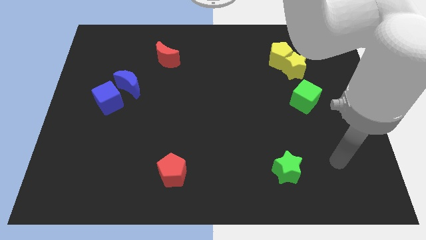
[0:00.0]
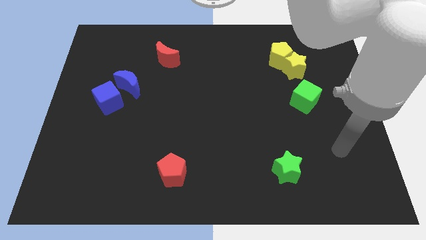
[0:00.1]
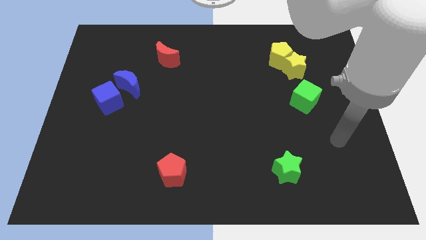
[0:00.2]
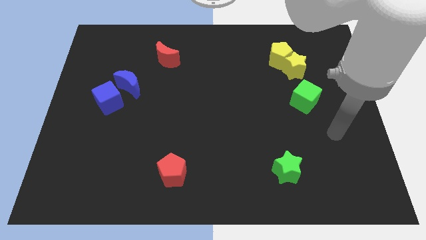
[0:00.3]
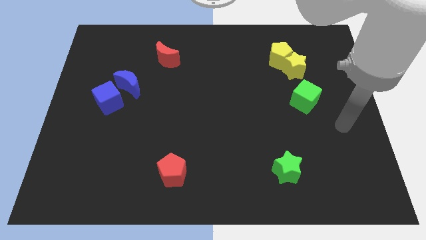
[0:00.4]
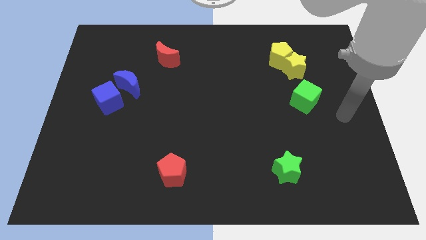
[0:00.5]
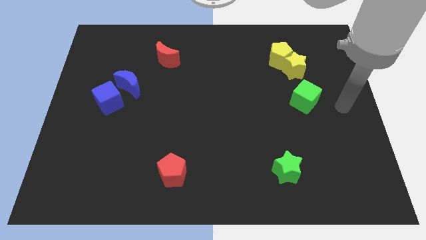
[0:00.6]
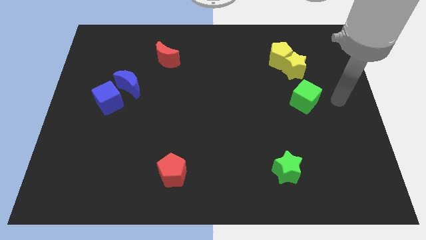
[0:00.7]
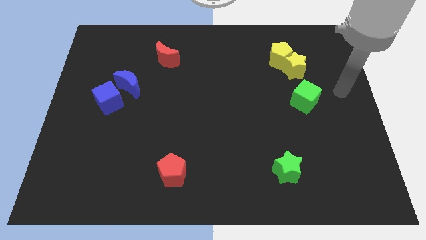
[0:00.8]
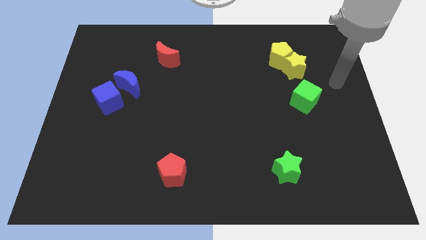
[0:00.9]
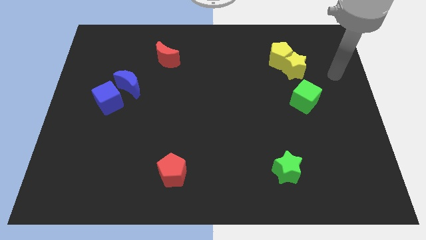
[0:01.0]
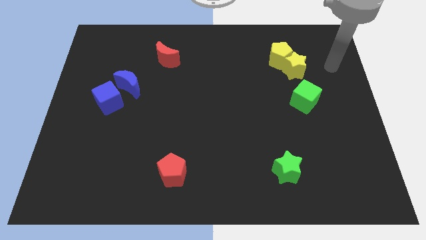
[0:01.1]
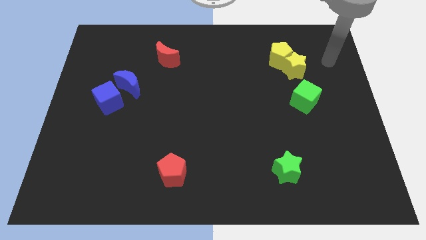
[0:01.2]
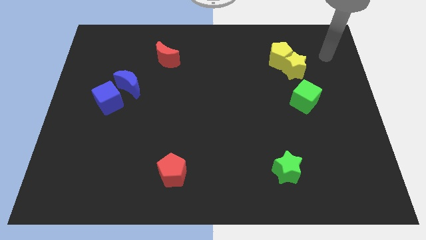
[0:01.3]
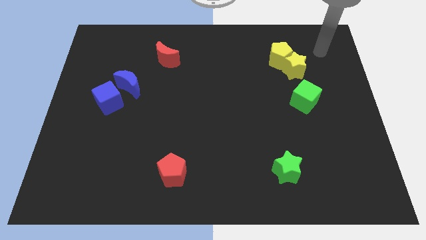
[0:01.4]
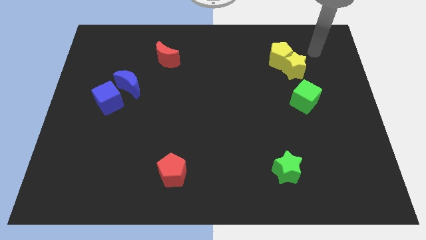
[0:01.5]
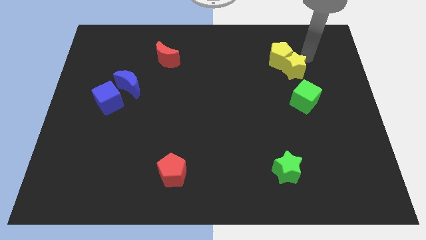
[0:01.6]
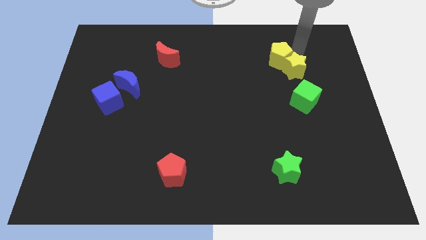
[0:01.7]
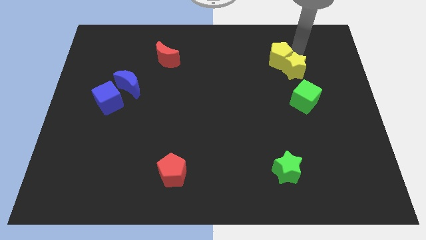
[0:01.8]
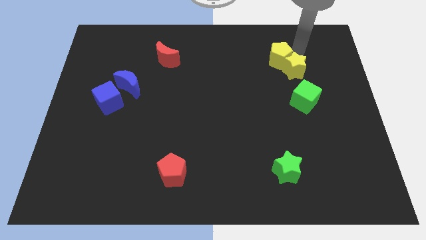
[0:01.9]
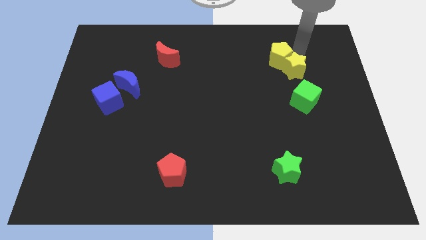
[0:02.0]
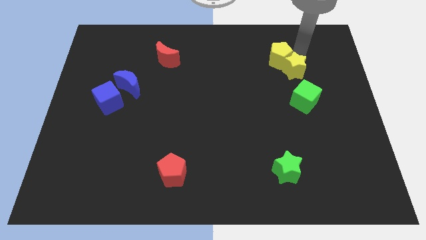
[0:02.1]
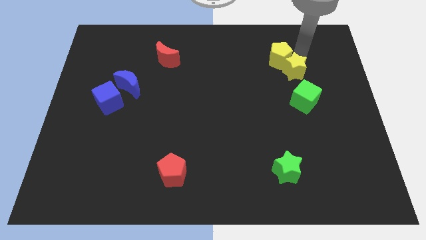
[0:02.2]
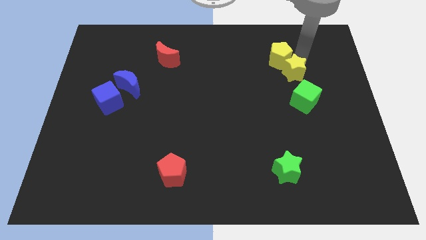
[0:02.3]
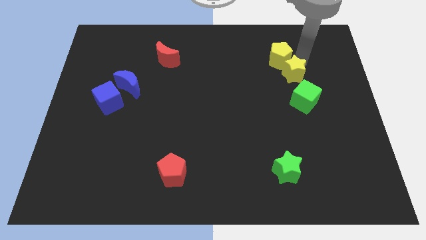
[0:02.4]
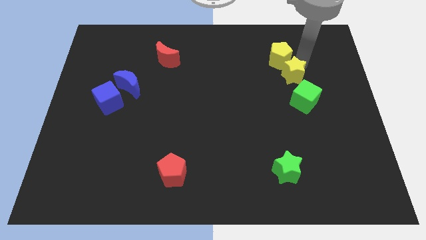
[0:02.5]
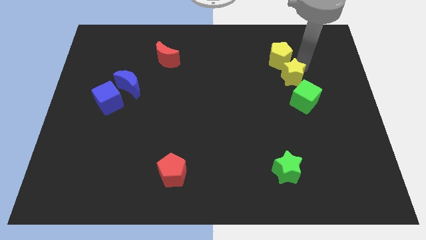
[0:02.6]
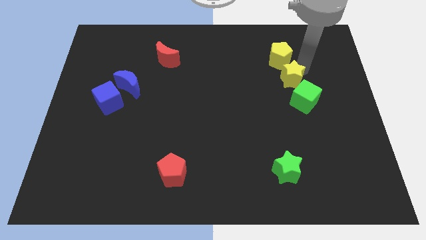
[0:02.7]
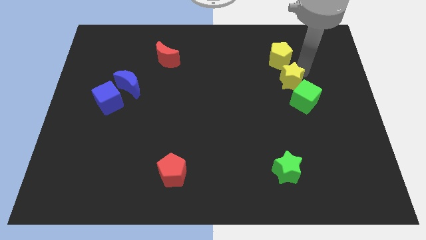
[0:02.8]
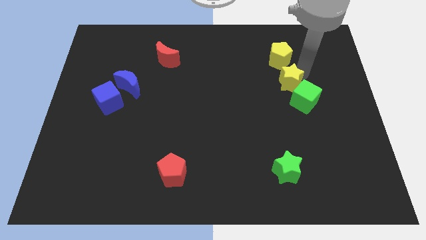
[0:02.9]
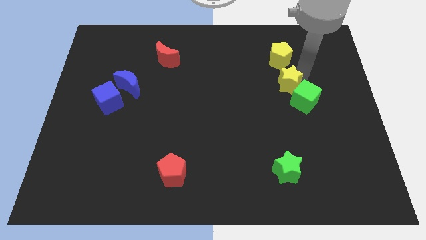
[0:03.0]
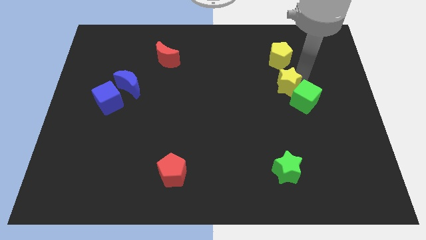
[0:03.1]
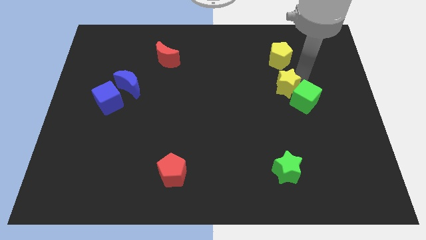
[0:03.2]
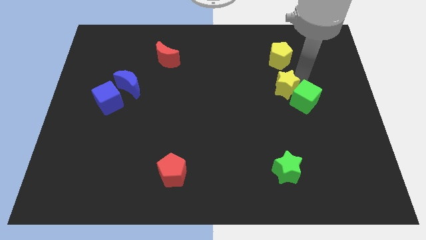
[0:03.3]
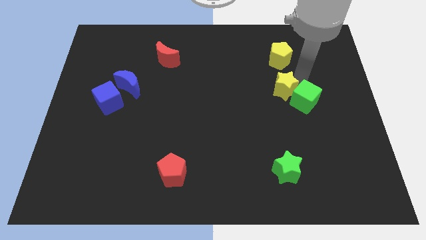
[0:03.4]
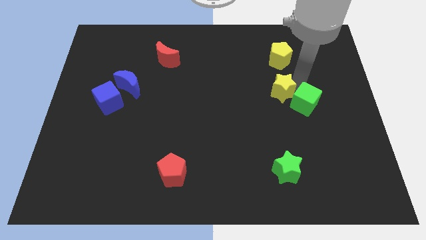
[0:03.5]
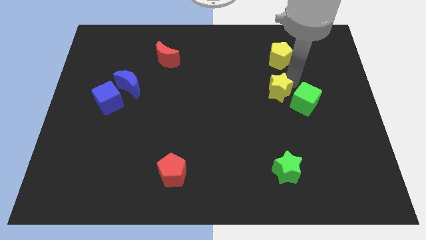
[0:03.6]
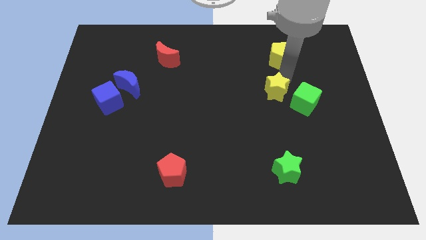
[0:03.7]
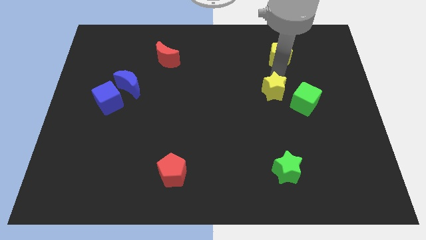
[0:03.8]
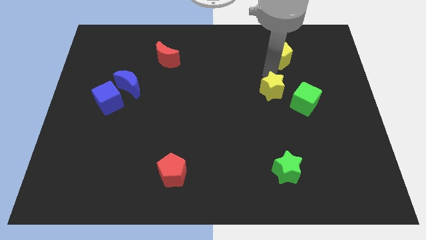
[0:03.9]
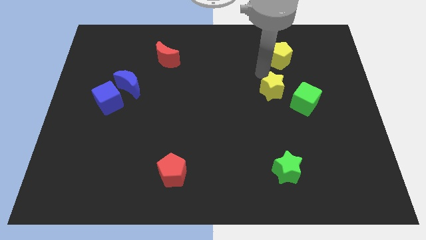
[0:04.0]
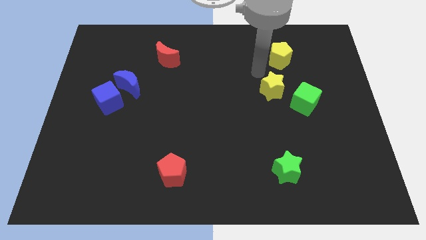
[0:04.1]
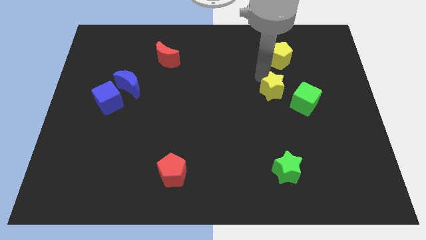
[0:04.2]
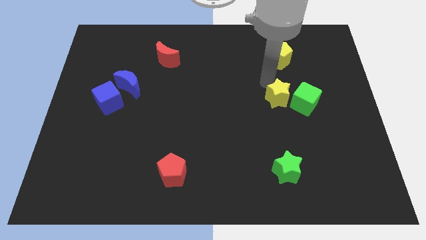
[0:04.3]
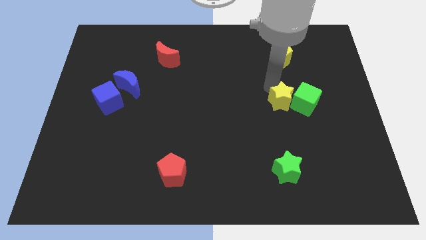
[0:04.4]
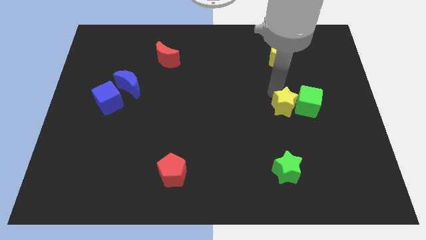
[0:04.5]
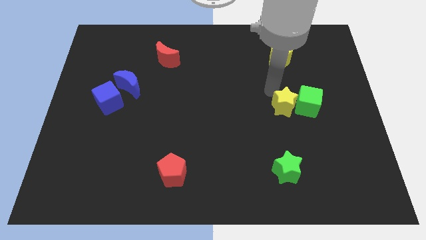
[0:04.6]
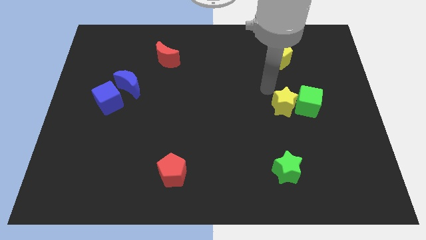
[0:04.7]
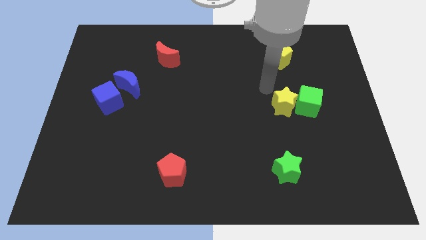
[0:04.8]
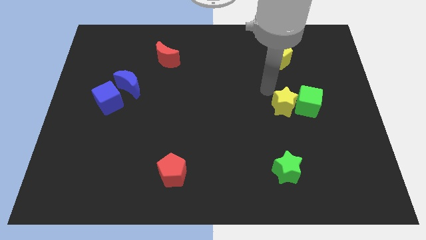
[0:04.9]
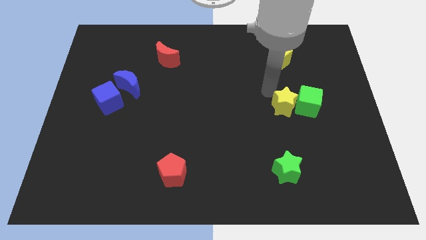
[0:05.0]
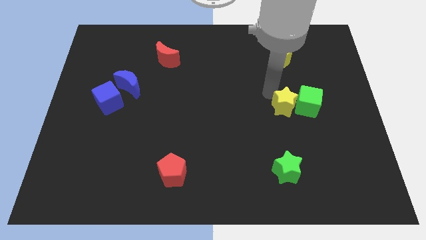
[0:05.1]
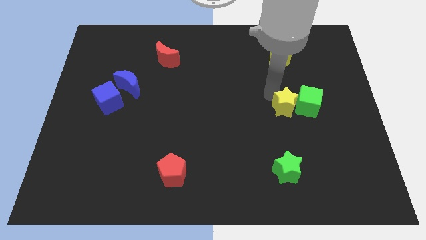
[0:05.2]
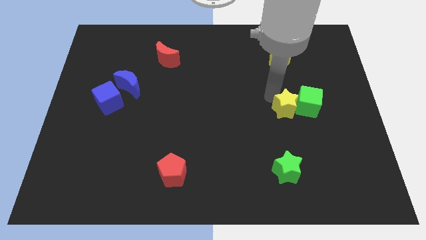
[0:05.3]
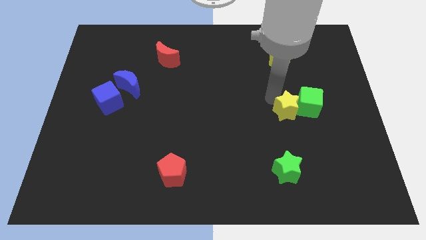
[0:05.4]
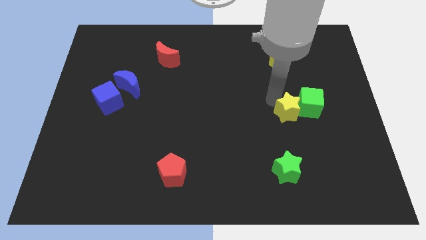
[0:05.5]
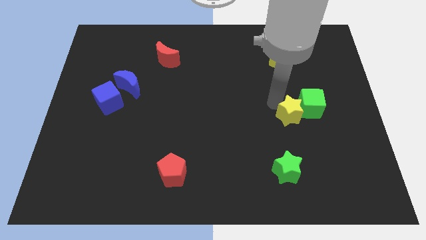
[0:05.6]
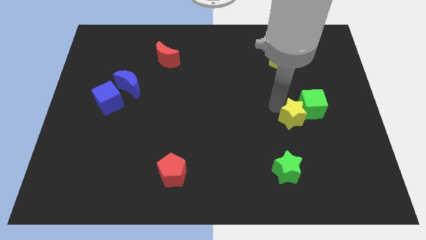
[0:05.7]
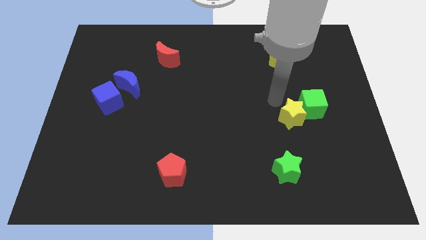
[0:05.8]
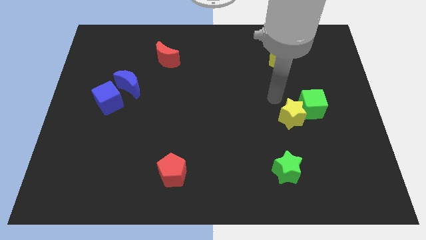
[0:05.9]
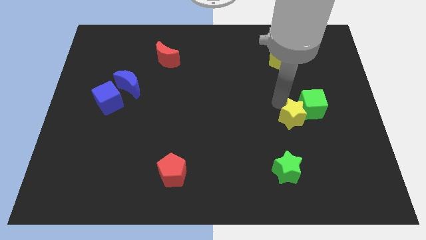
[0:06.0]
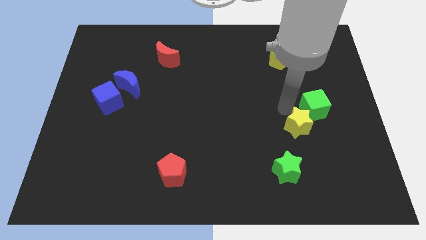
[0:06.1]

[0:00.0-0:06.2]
slide the yellow star to the bottom side of the green cube
